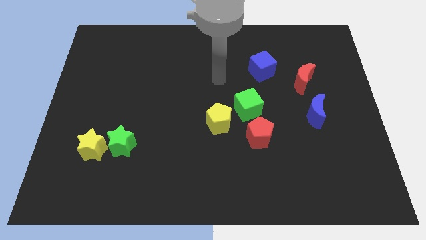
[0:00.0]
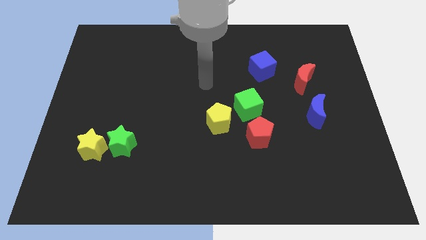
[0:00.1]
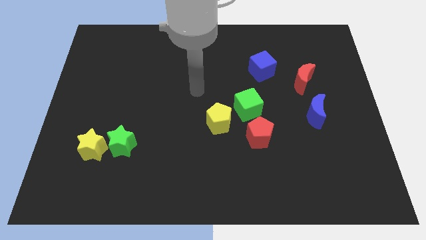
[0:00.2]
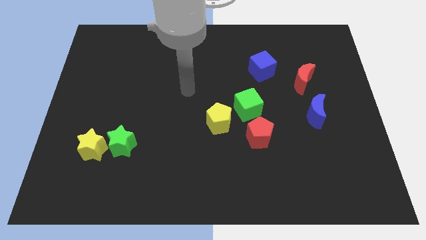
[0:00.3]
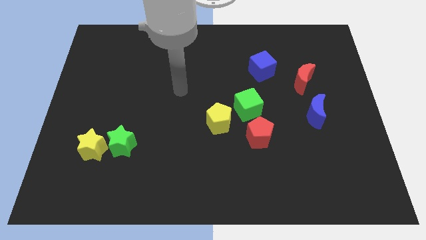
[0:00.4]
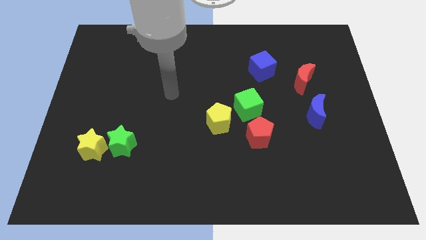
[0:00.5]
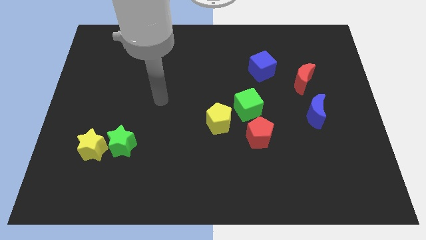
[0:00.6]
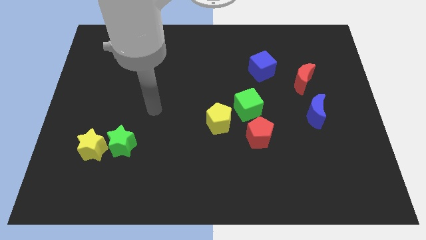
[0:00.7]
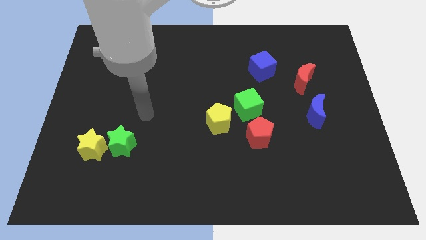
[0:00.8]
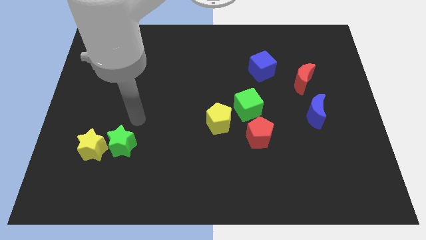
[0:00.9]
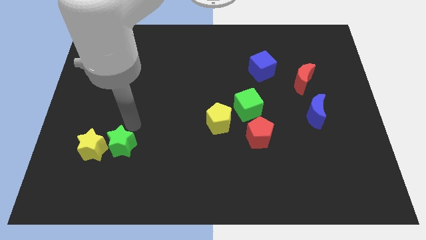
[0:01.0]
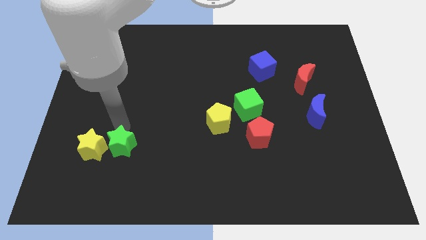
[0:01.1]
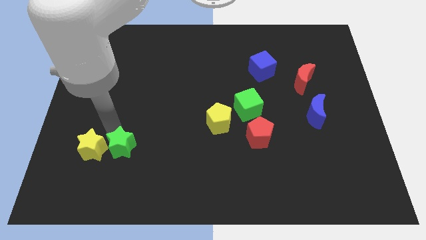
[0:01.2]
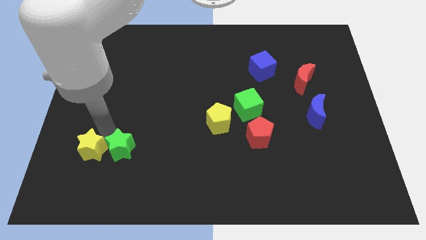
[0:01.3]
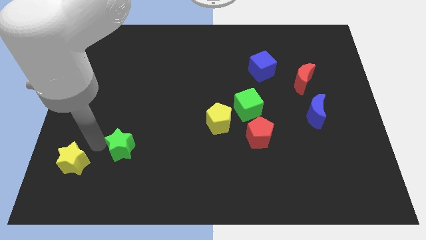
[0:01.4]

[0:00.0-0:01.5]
pull the green star apart from the yellow star

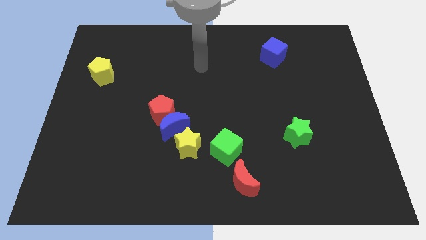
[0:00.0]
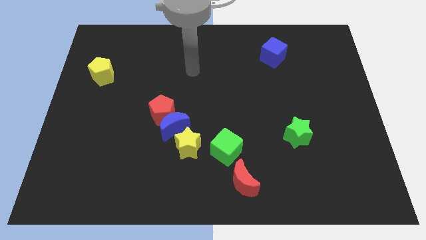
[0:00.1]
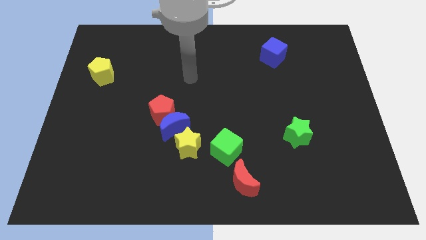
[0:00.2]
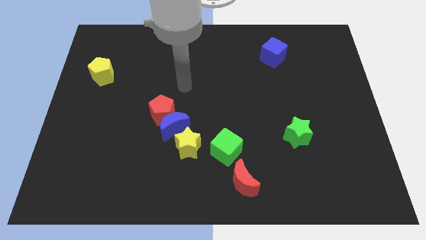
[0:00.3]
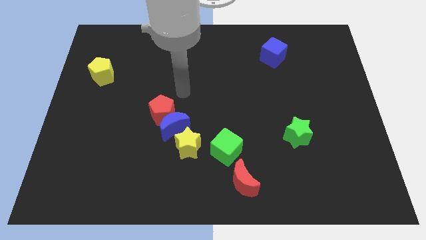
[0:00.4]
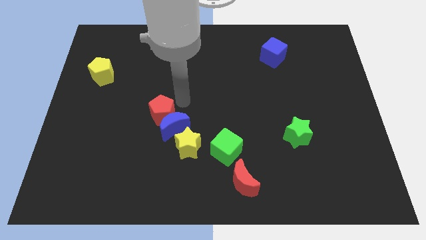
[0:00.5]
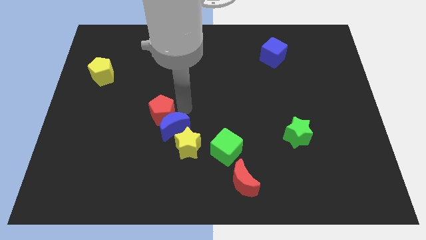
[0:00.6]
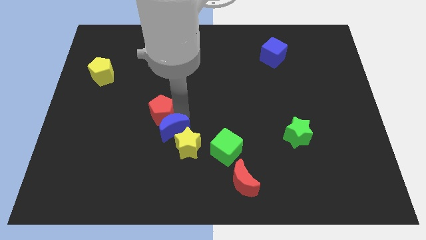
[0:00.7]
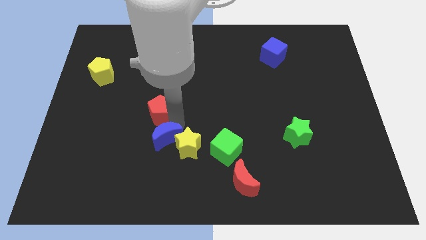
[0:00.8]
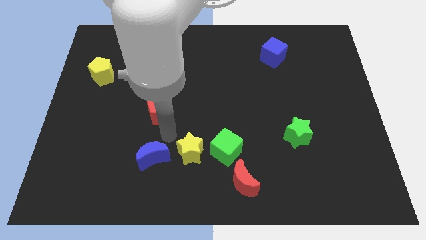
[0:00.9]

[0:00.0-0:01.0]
move the red pentagon away from the blue moon

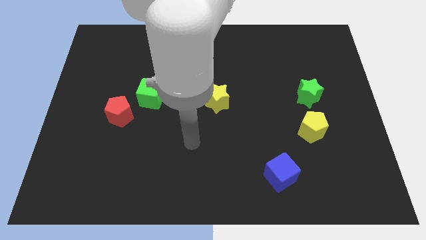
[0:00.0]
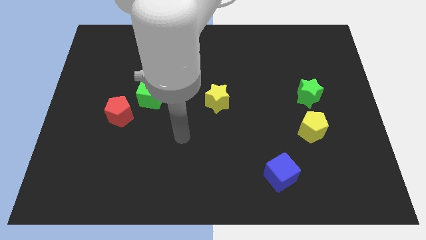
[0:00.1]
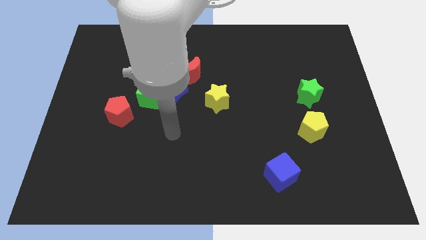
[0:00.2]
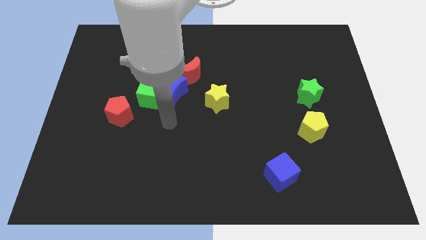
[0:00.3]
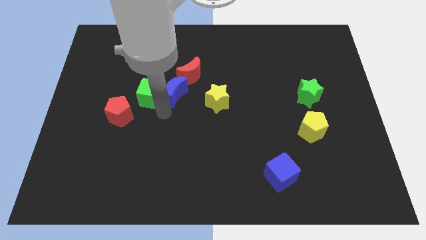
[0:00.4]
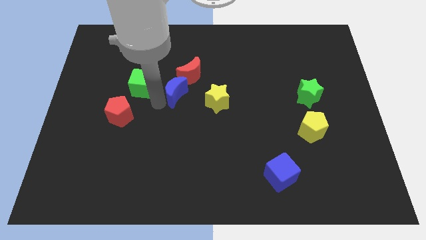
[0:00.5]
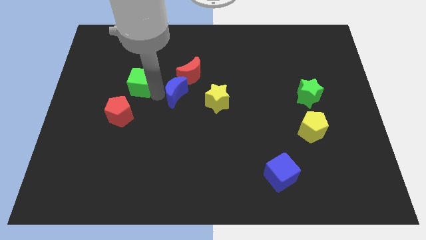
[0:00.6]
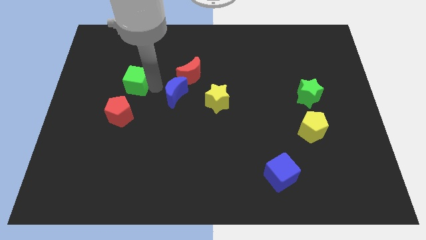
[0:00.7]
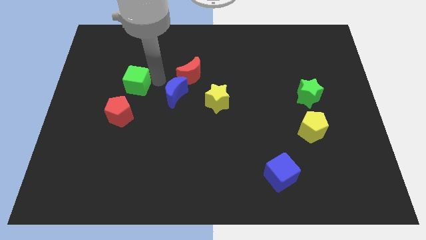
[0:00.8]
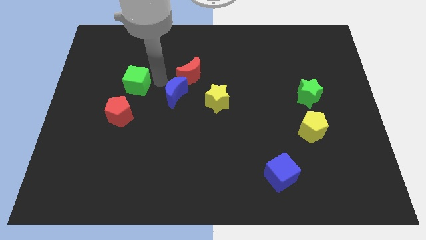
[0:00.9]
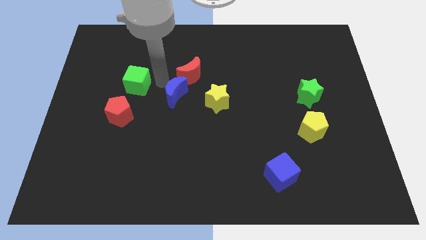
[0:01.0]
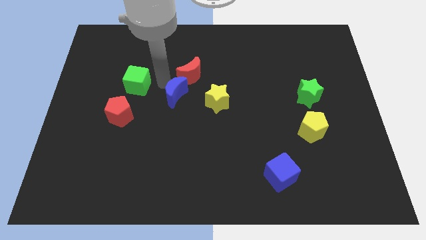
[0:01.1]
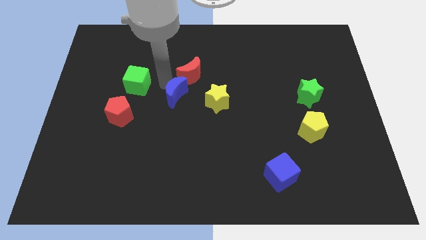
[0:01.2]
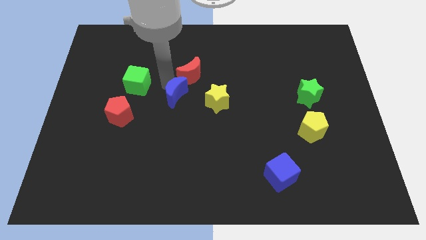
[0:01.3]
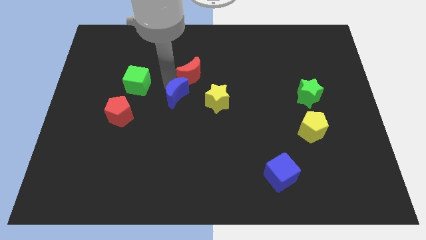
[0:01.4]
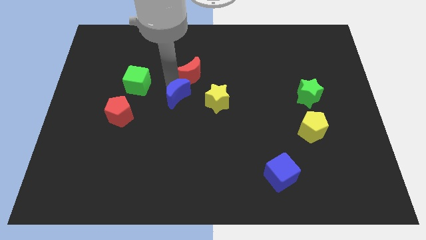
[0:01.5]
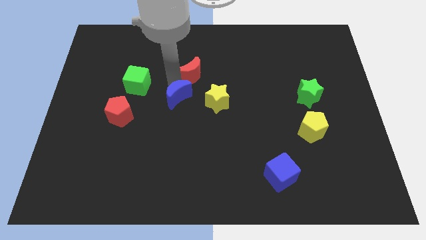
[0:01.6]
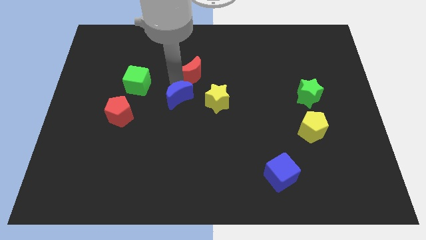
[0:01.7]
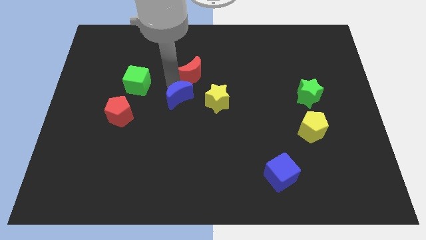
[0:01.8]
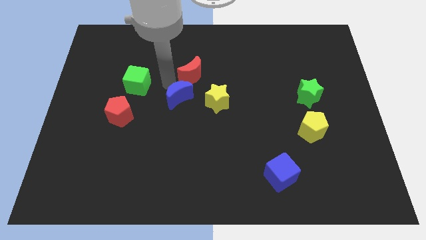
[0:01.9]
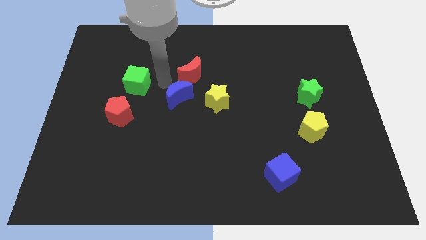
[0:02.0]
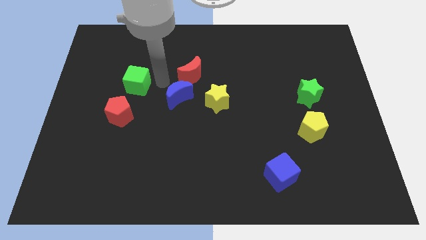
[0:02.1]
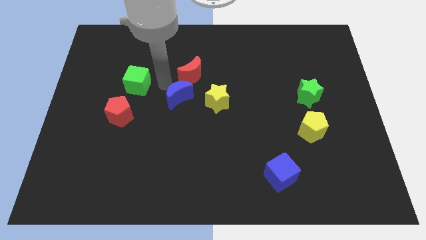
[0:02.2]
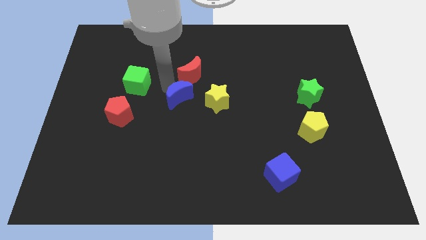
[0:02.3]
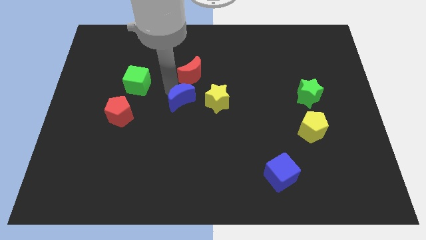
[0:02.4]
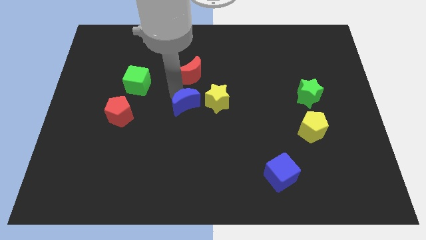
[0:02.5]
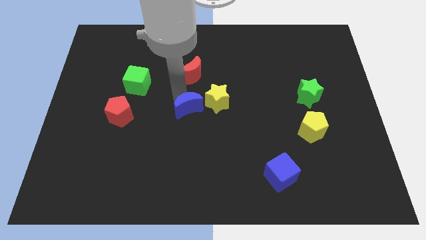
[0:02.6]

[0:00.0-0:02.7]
separate the blue moon from the green cube and red moon

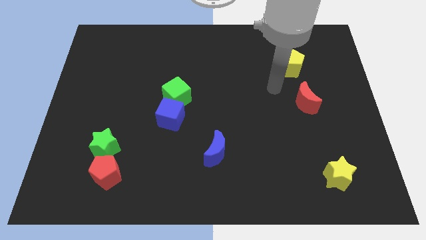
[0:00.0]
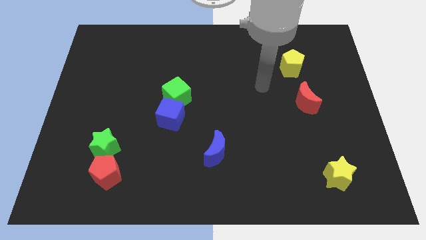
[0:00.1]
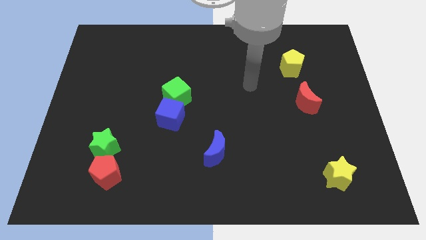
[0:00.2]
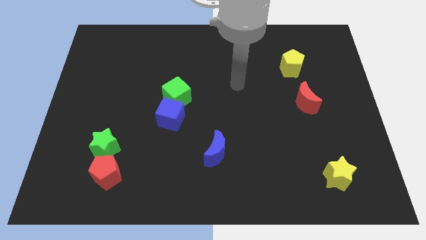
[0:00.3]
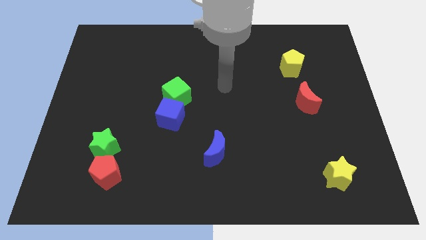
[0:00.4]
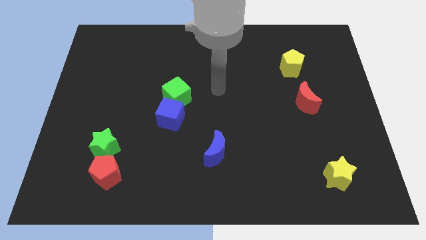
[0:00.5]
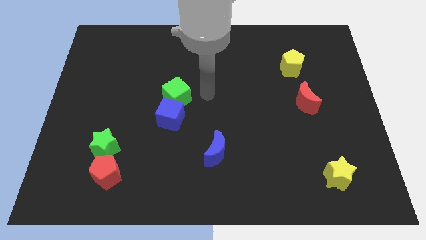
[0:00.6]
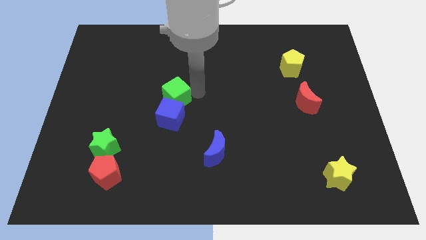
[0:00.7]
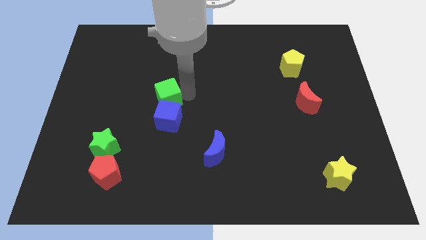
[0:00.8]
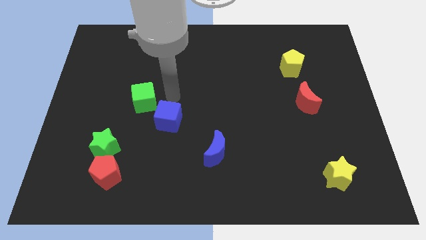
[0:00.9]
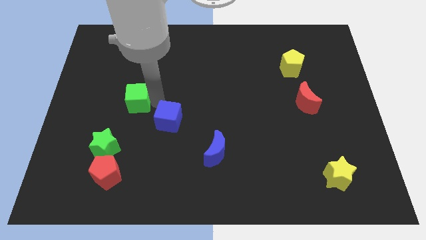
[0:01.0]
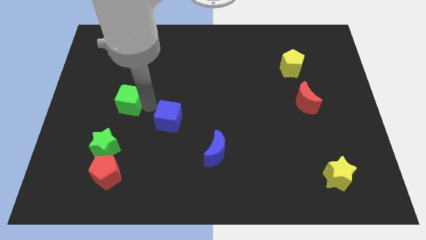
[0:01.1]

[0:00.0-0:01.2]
pull the blue cube apart from the green cube

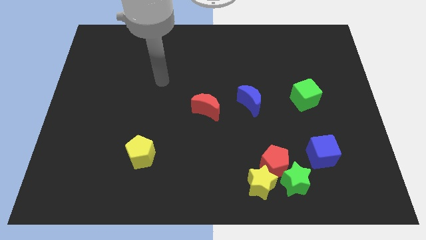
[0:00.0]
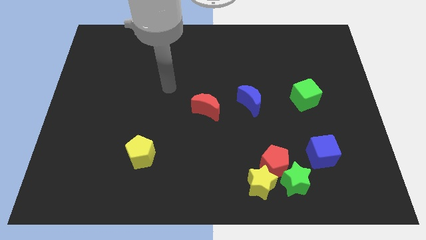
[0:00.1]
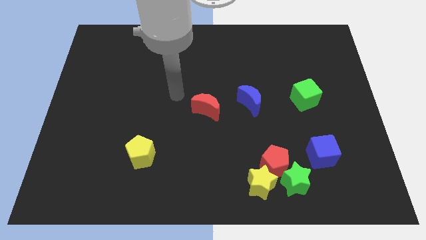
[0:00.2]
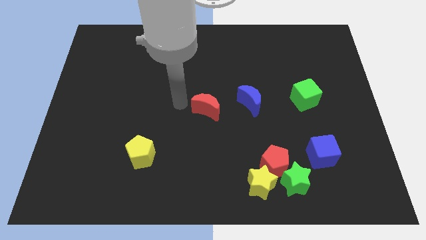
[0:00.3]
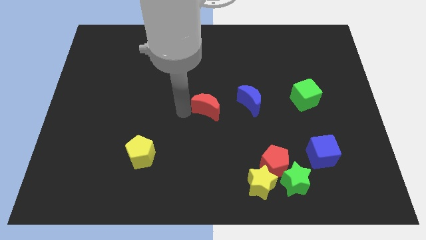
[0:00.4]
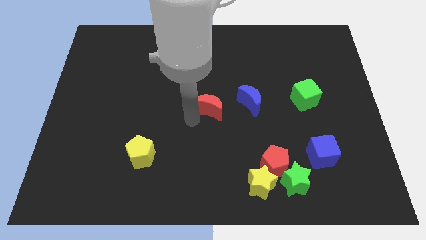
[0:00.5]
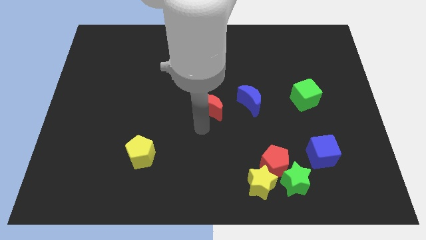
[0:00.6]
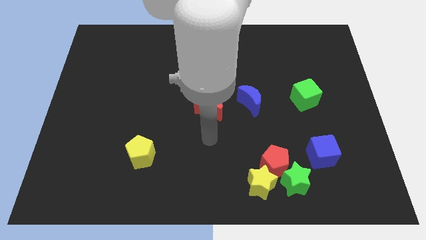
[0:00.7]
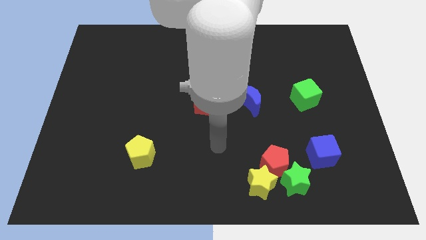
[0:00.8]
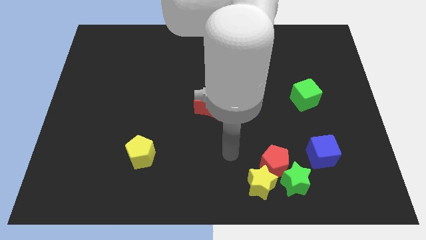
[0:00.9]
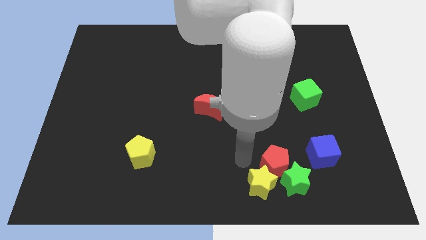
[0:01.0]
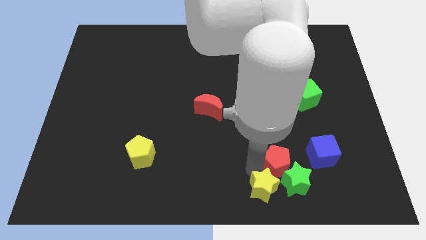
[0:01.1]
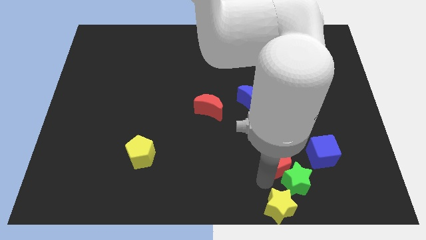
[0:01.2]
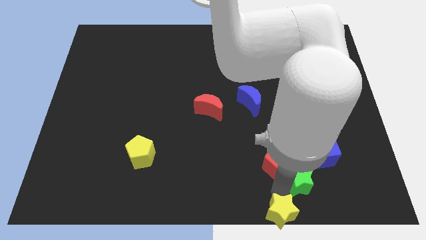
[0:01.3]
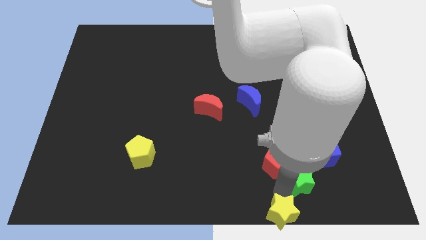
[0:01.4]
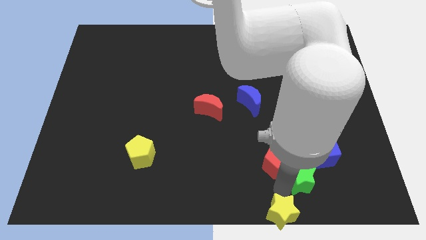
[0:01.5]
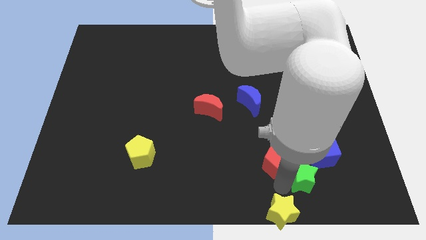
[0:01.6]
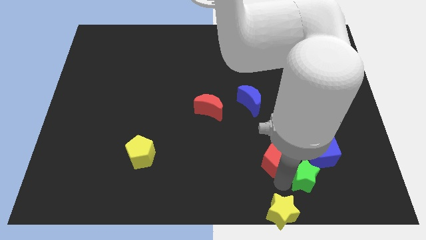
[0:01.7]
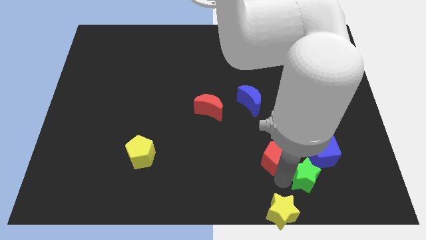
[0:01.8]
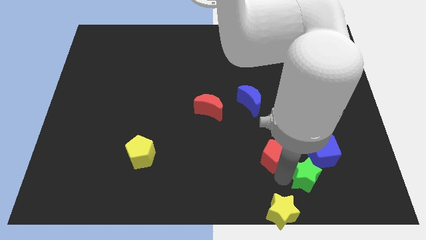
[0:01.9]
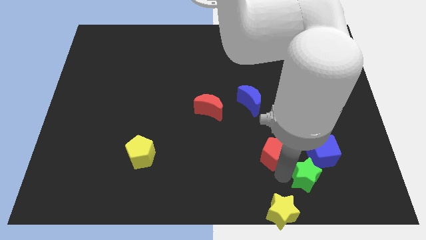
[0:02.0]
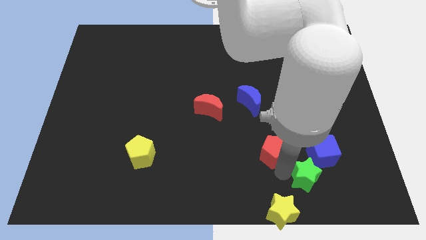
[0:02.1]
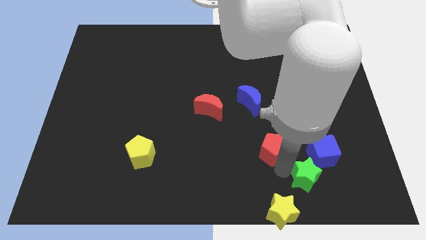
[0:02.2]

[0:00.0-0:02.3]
pull the red pentagon apart from the yellow star and green star

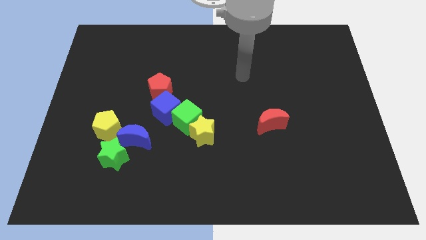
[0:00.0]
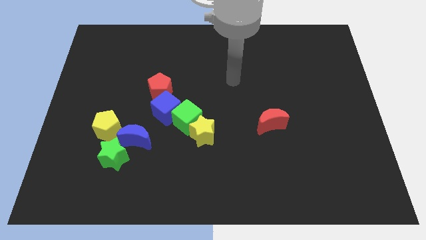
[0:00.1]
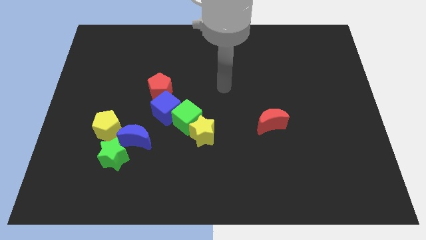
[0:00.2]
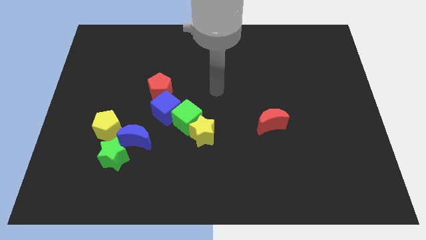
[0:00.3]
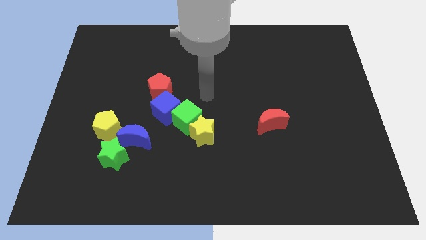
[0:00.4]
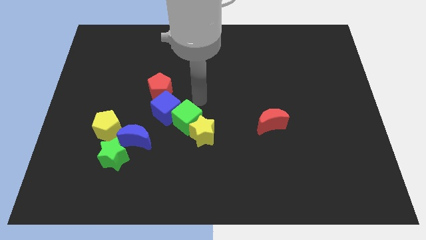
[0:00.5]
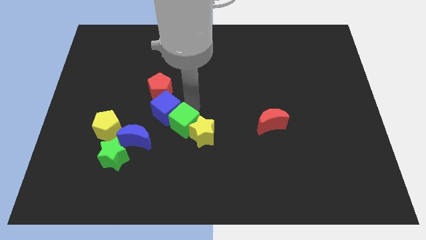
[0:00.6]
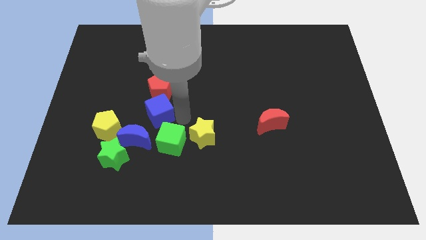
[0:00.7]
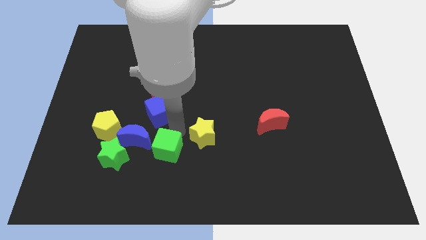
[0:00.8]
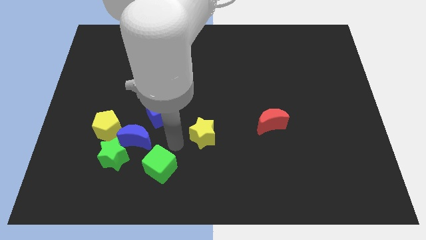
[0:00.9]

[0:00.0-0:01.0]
separate the yellow star from the green cube
